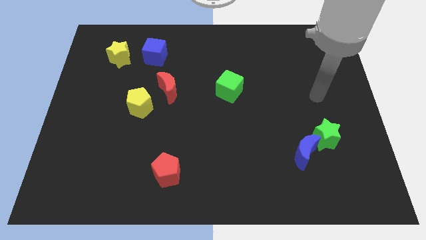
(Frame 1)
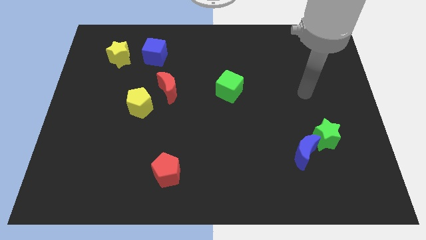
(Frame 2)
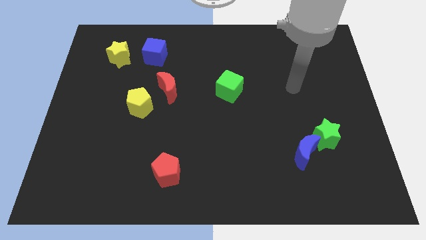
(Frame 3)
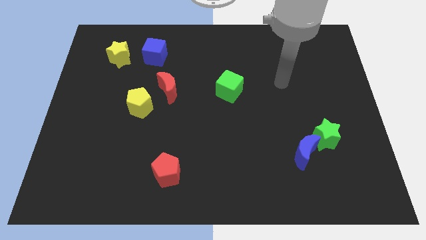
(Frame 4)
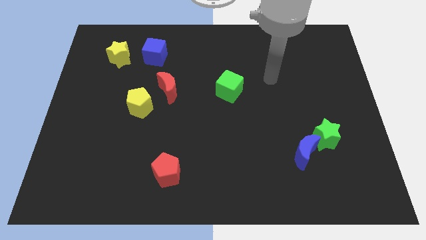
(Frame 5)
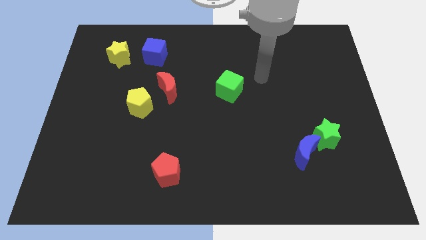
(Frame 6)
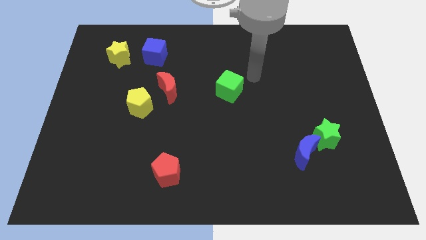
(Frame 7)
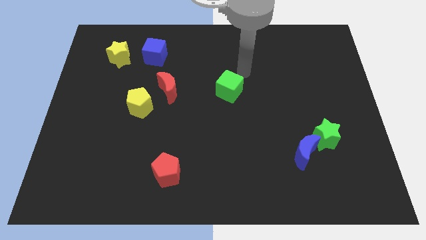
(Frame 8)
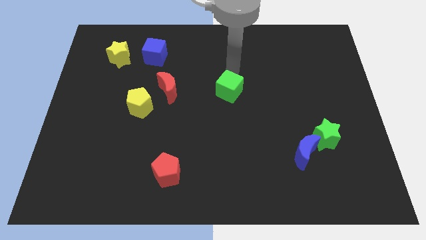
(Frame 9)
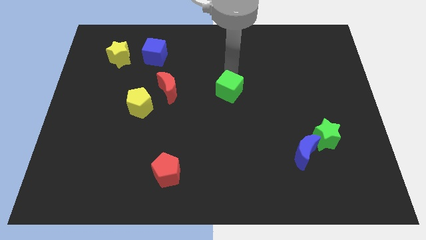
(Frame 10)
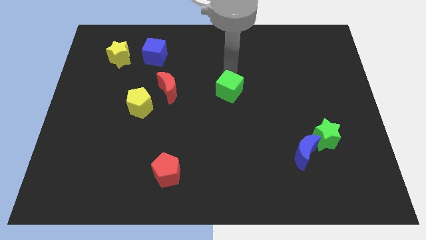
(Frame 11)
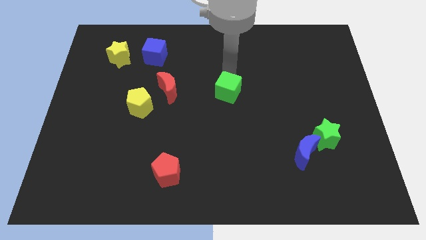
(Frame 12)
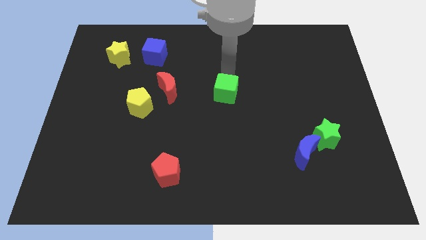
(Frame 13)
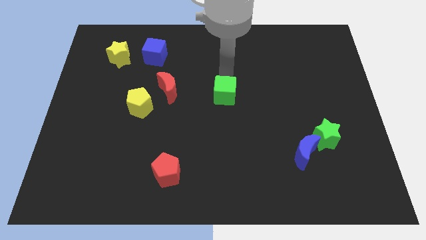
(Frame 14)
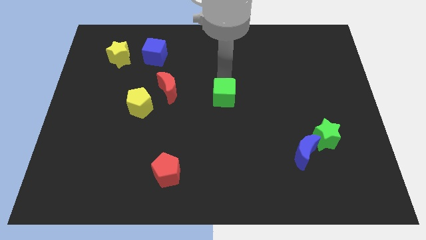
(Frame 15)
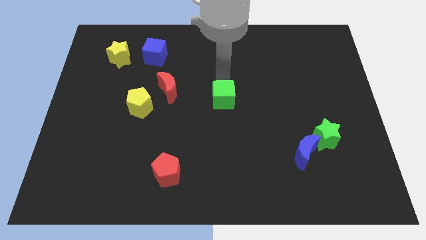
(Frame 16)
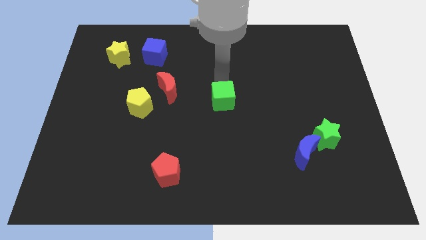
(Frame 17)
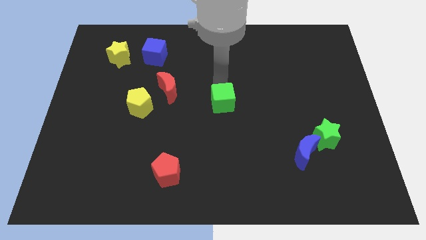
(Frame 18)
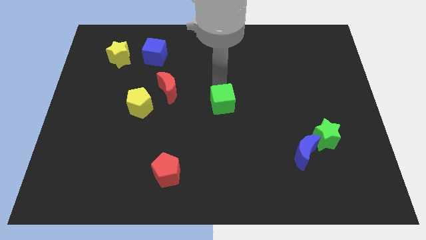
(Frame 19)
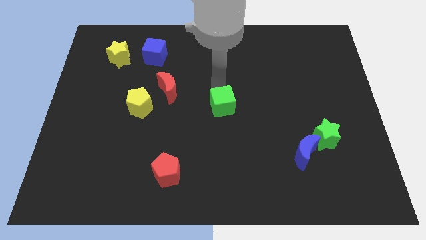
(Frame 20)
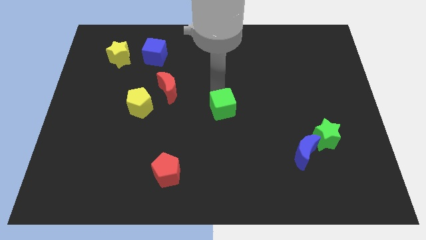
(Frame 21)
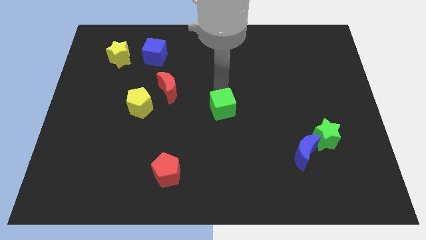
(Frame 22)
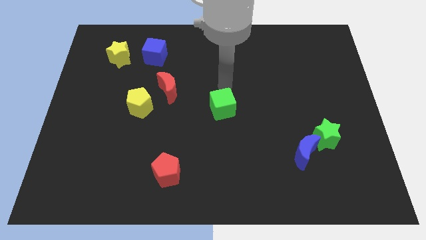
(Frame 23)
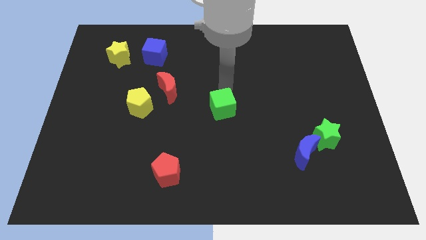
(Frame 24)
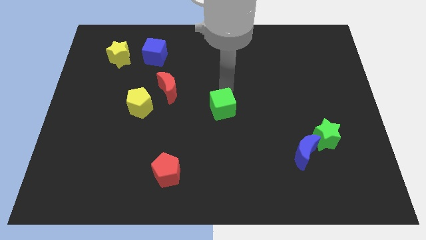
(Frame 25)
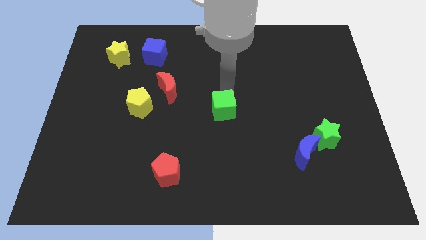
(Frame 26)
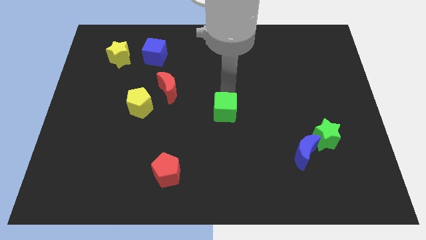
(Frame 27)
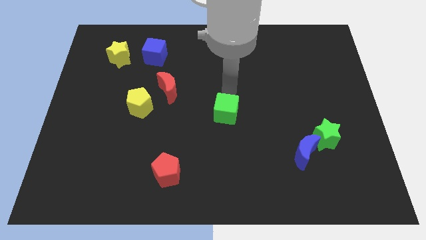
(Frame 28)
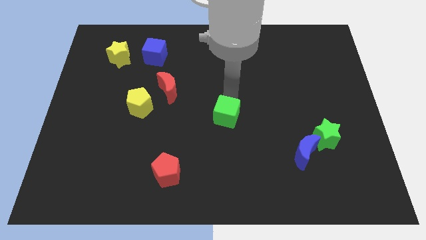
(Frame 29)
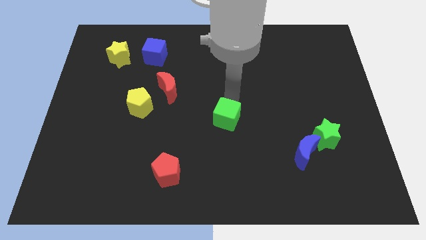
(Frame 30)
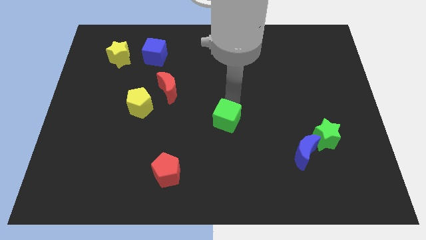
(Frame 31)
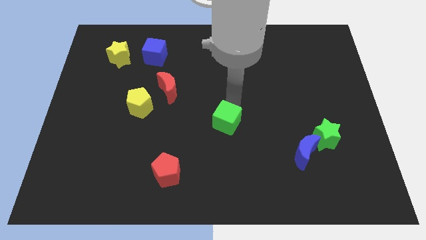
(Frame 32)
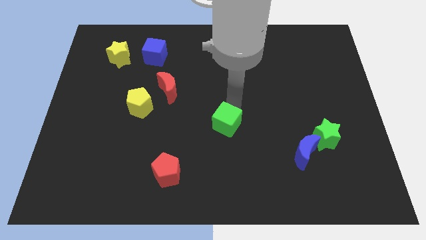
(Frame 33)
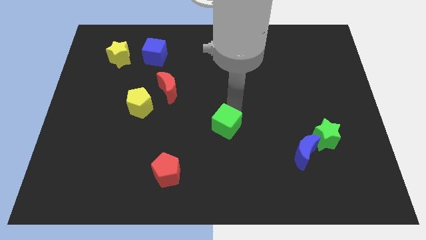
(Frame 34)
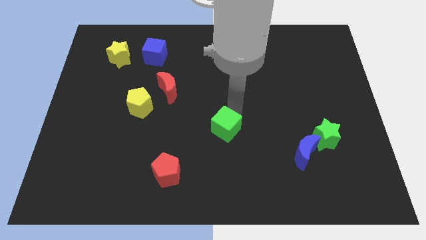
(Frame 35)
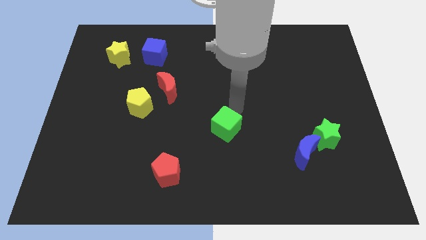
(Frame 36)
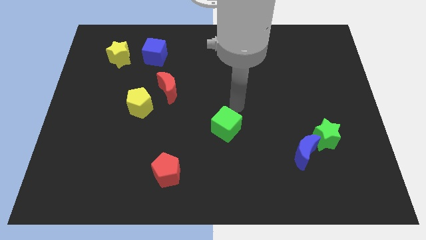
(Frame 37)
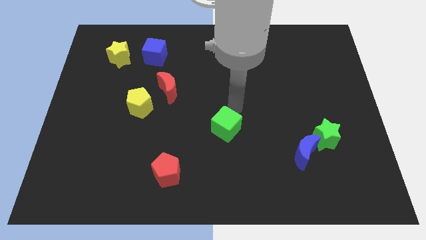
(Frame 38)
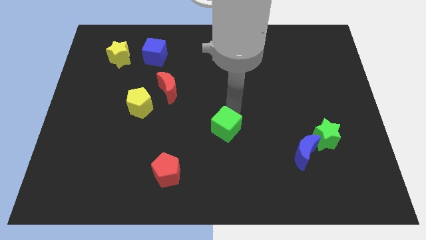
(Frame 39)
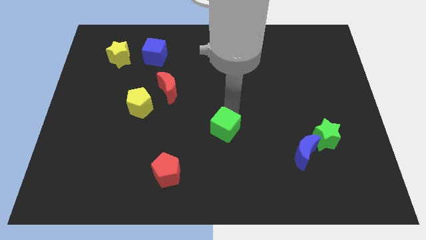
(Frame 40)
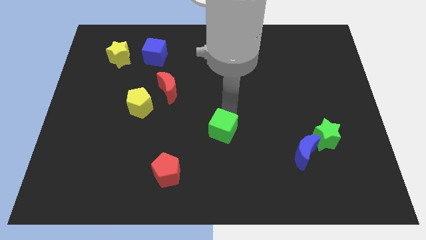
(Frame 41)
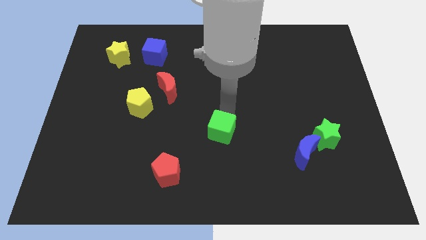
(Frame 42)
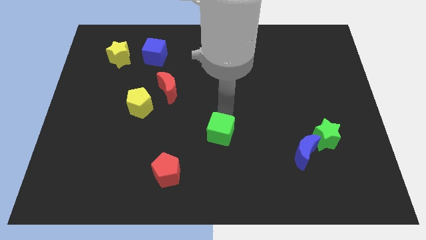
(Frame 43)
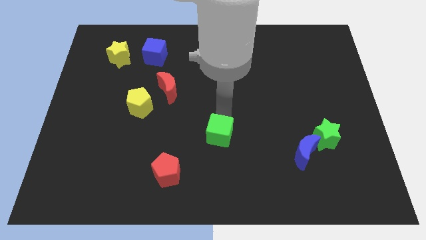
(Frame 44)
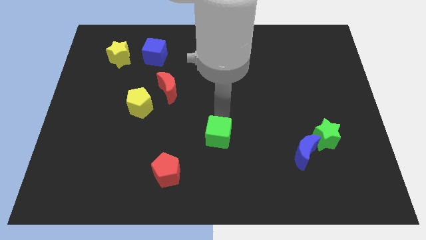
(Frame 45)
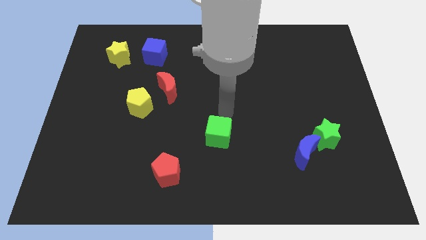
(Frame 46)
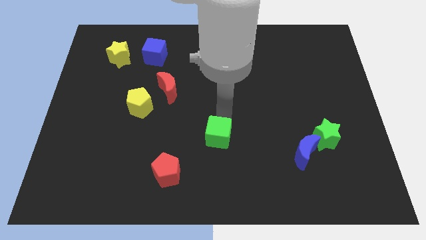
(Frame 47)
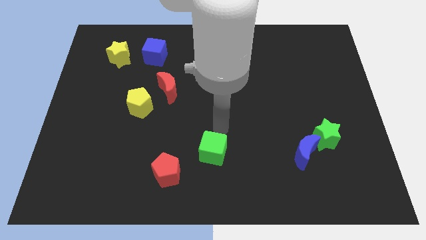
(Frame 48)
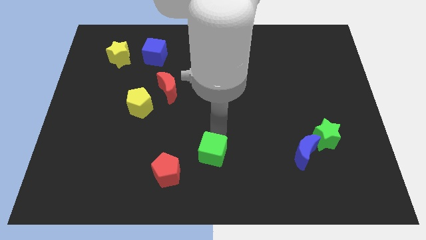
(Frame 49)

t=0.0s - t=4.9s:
push the green cube to the bottom side

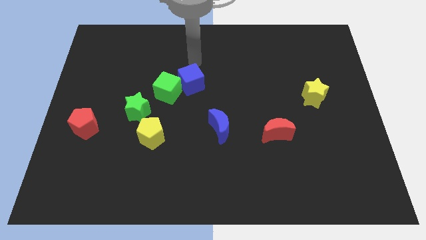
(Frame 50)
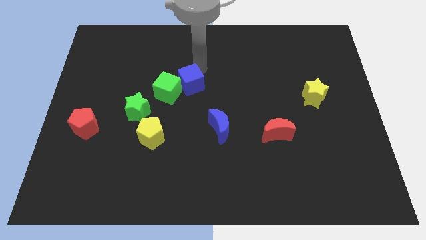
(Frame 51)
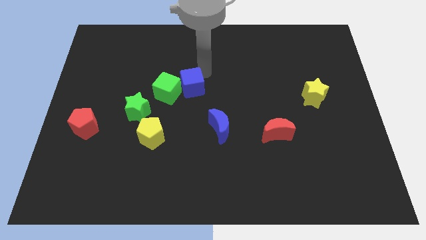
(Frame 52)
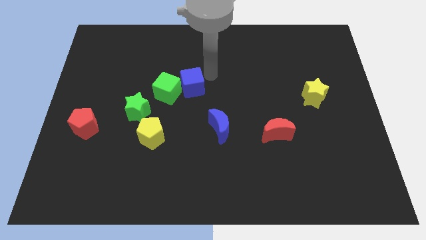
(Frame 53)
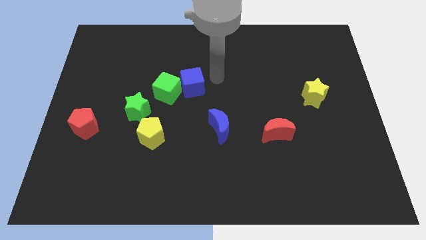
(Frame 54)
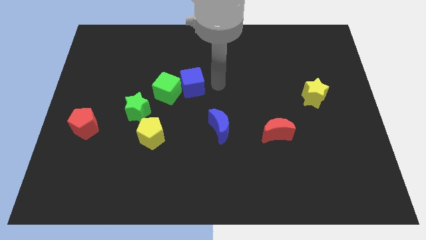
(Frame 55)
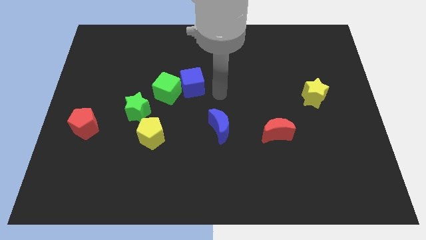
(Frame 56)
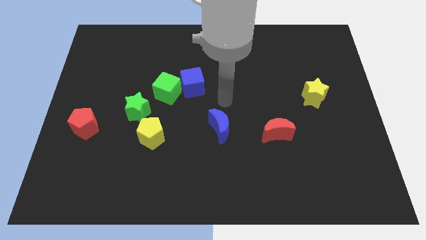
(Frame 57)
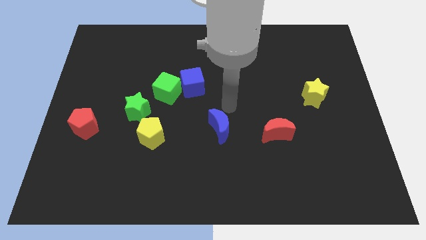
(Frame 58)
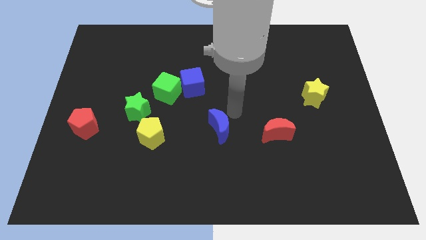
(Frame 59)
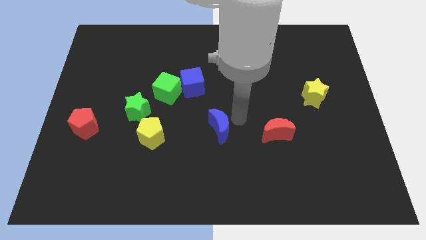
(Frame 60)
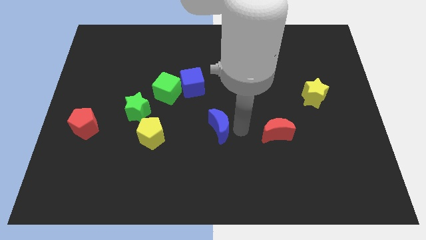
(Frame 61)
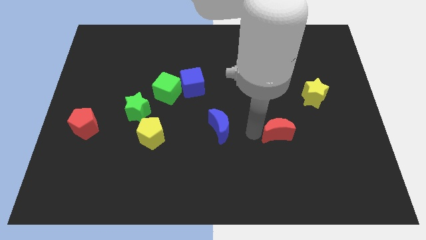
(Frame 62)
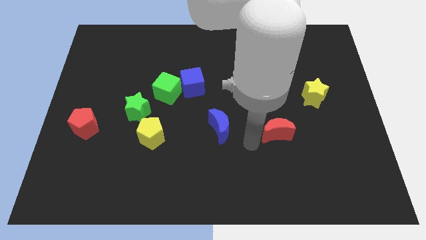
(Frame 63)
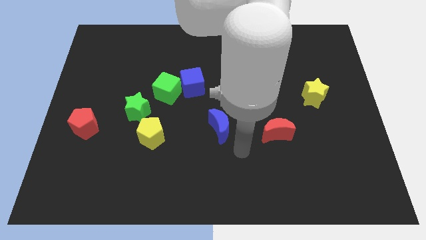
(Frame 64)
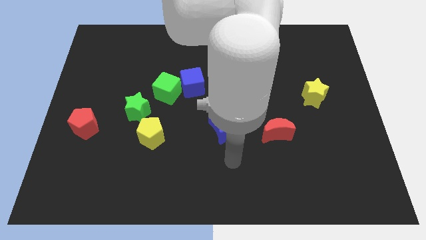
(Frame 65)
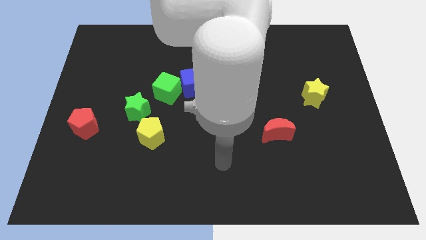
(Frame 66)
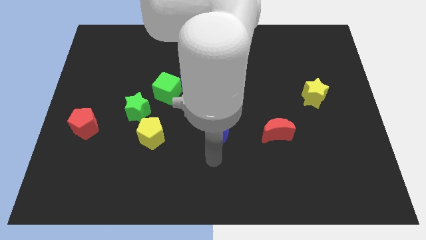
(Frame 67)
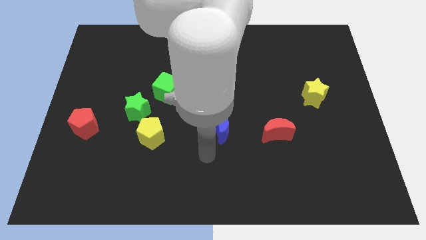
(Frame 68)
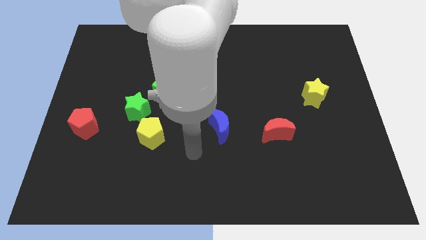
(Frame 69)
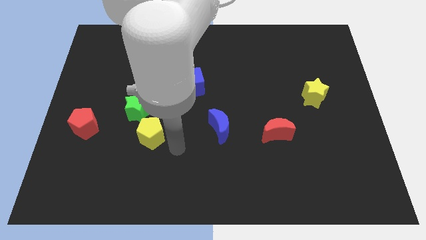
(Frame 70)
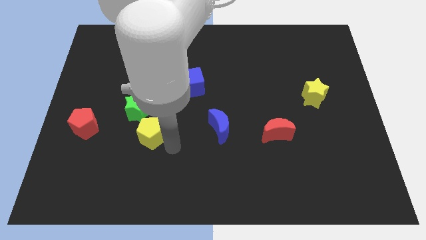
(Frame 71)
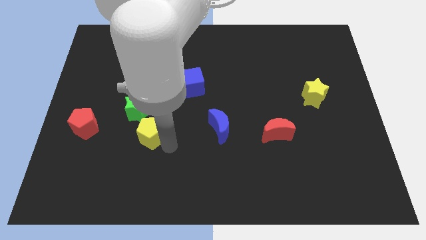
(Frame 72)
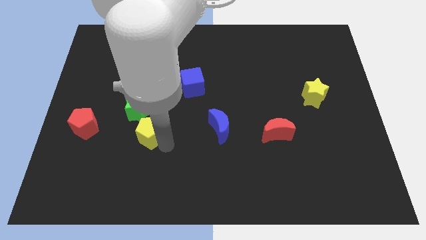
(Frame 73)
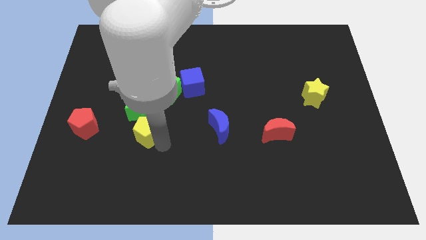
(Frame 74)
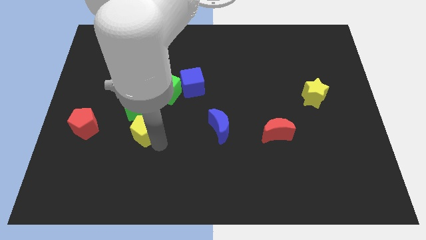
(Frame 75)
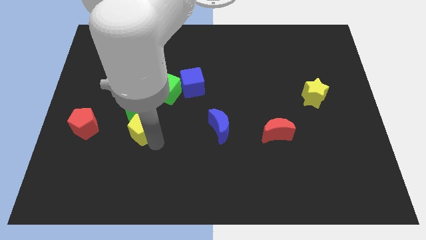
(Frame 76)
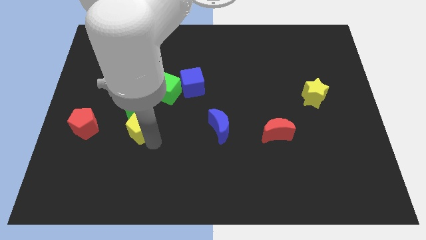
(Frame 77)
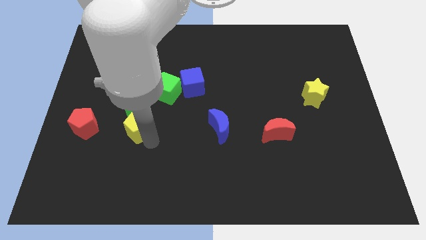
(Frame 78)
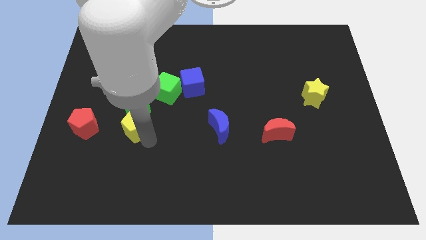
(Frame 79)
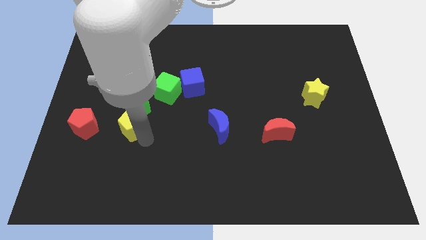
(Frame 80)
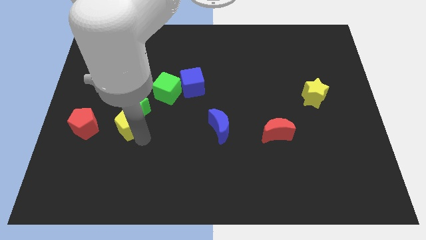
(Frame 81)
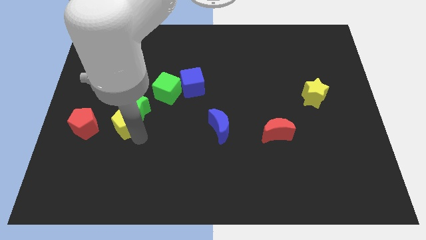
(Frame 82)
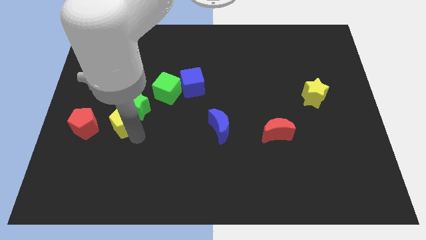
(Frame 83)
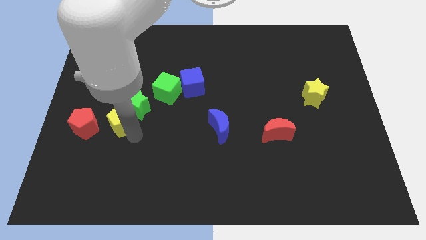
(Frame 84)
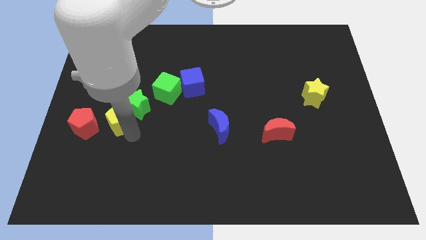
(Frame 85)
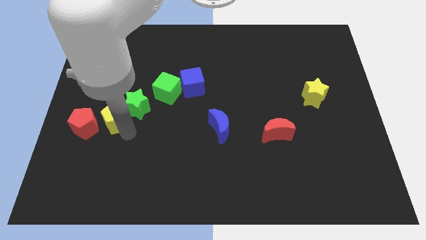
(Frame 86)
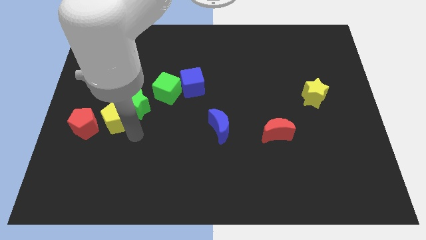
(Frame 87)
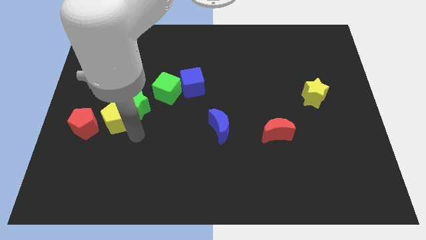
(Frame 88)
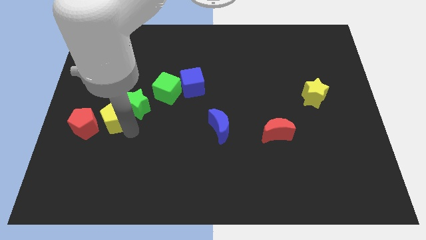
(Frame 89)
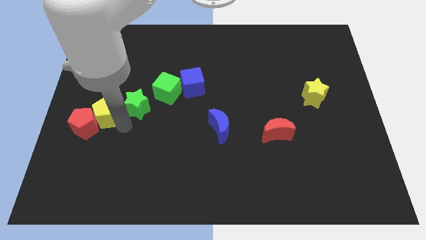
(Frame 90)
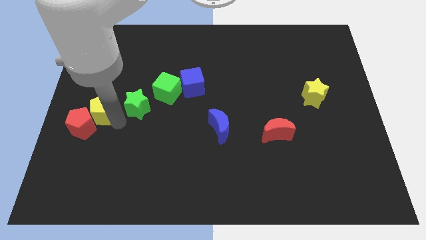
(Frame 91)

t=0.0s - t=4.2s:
slide the yellow pentagon to the left side
